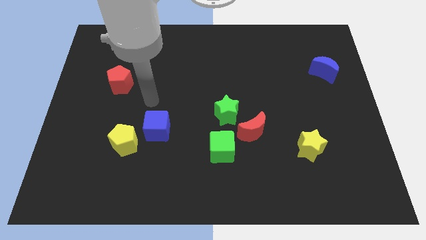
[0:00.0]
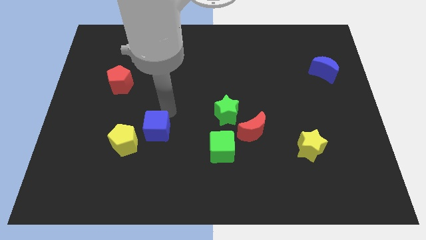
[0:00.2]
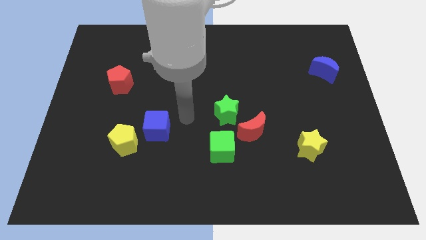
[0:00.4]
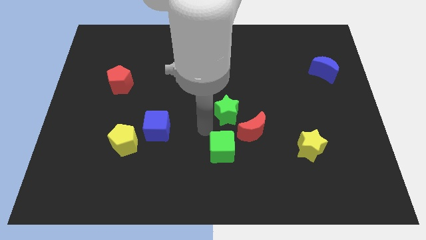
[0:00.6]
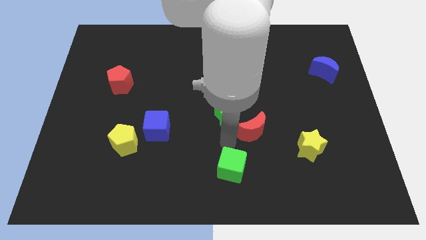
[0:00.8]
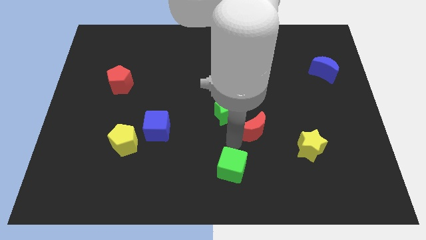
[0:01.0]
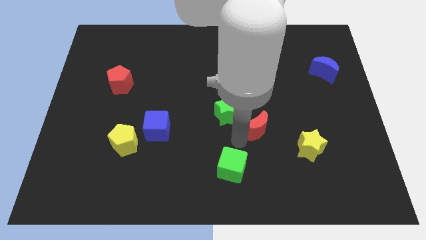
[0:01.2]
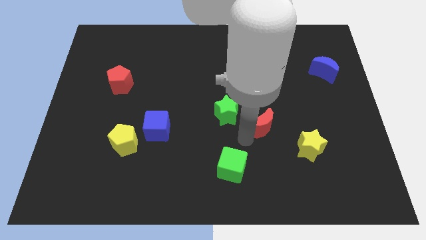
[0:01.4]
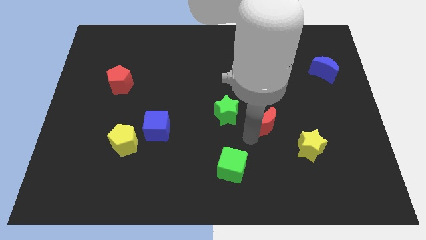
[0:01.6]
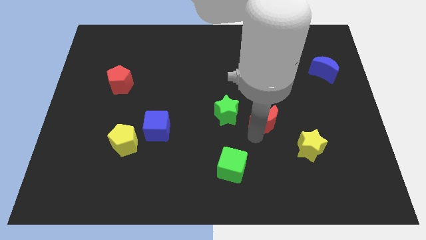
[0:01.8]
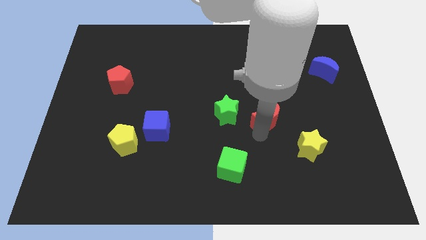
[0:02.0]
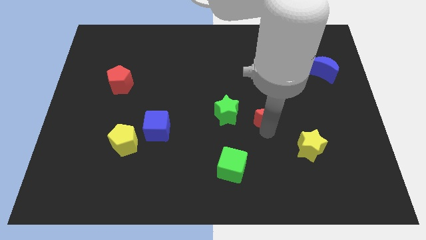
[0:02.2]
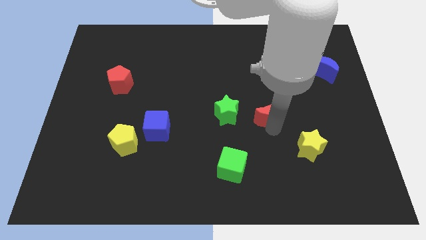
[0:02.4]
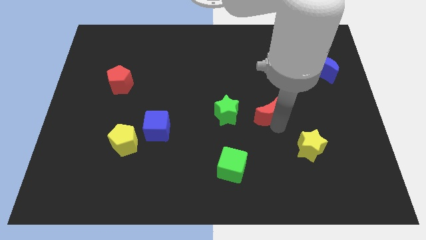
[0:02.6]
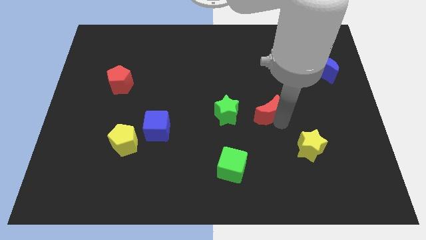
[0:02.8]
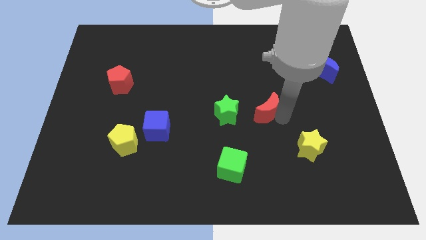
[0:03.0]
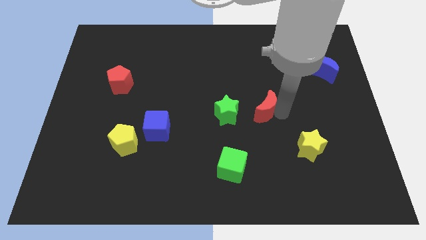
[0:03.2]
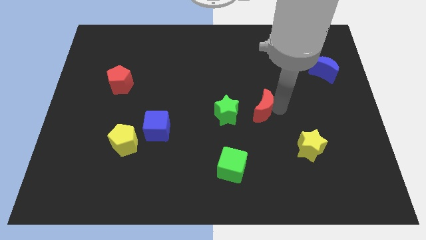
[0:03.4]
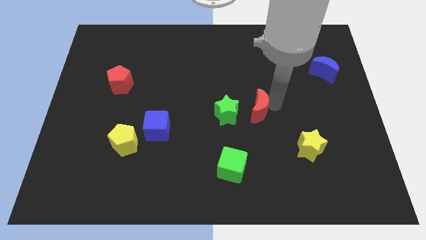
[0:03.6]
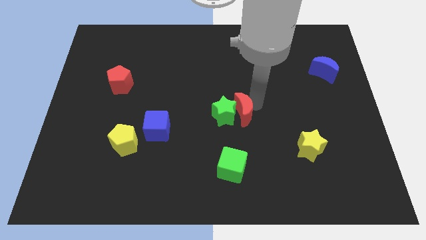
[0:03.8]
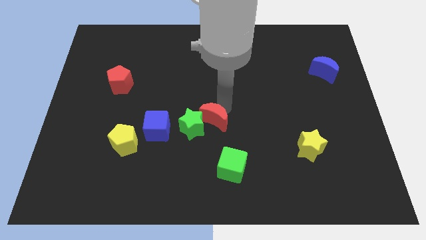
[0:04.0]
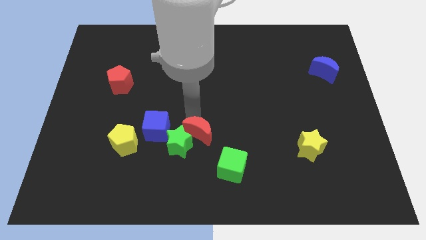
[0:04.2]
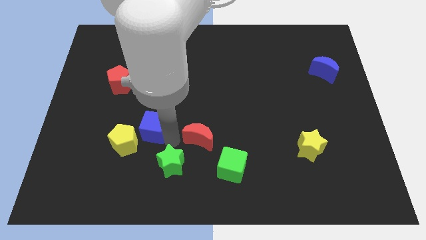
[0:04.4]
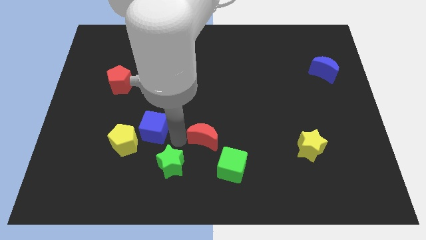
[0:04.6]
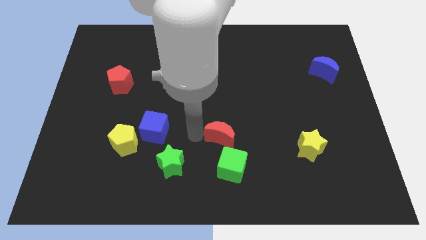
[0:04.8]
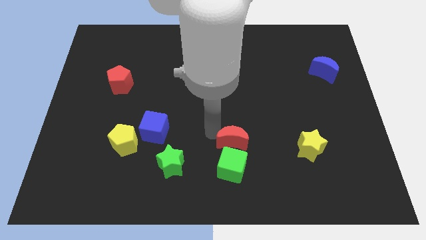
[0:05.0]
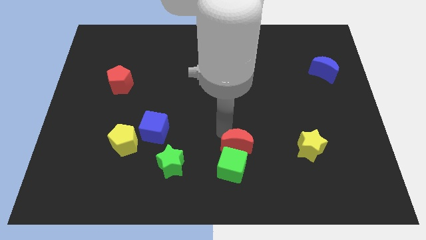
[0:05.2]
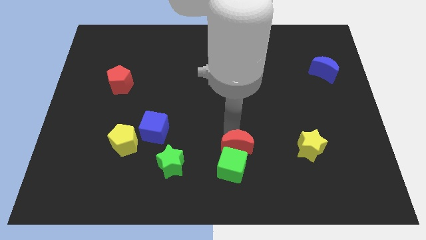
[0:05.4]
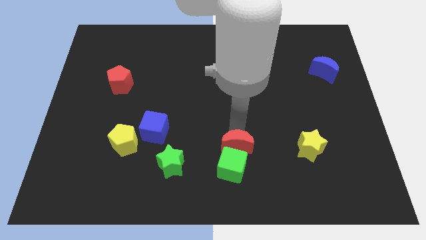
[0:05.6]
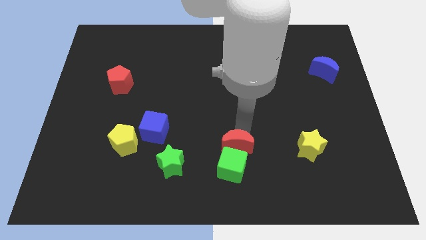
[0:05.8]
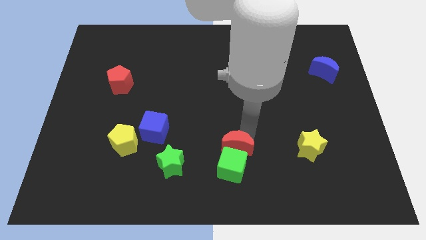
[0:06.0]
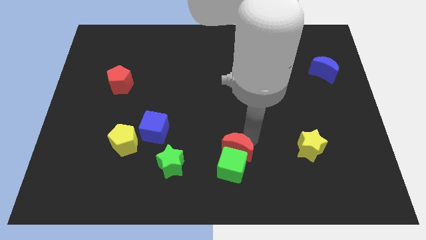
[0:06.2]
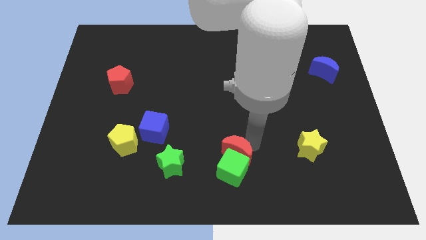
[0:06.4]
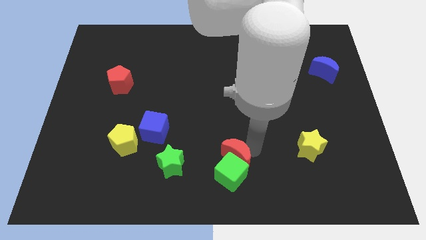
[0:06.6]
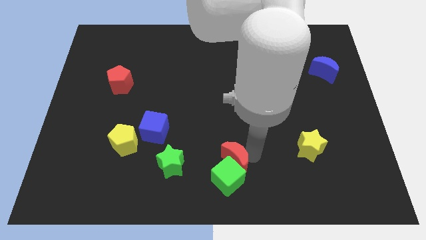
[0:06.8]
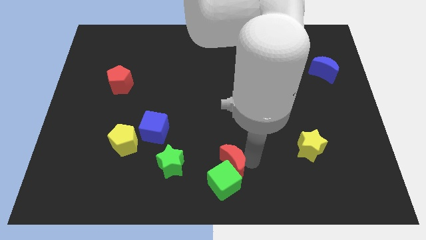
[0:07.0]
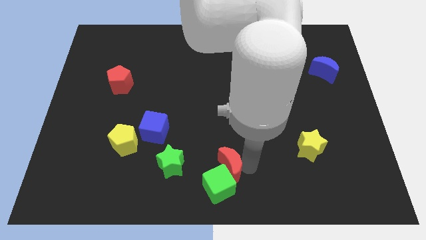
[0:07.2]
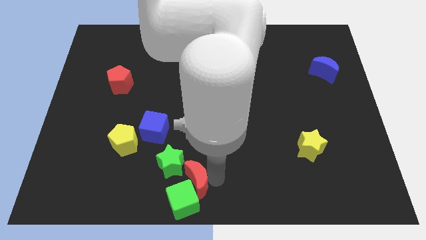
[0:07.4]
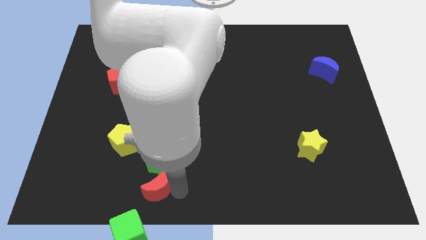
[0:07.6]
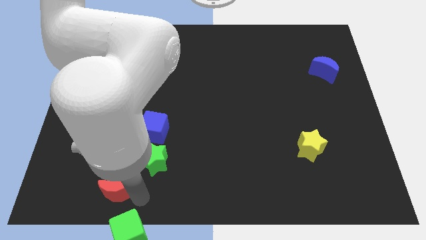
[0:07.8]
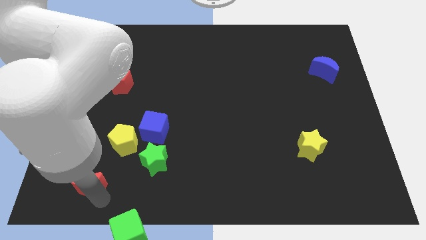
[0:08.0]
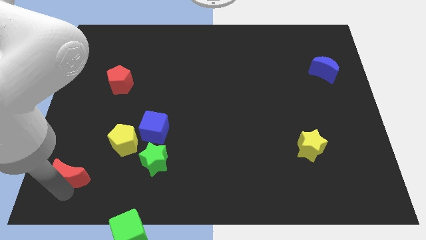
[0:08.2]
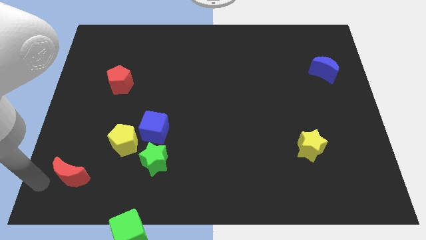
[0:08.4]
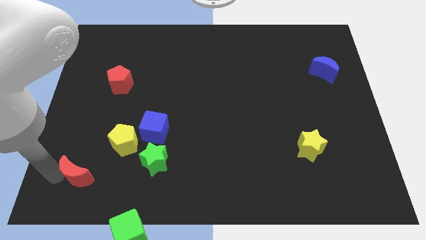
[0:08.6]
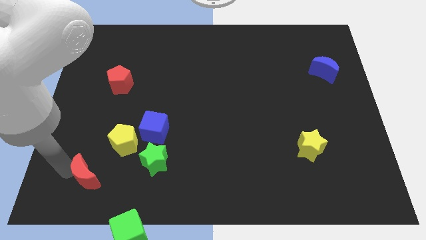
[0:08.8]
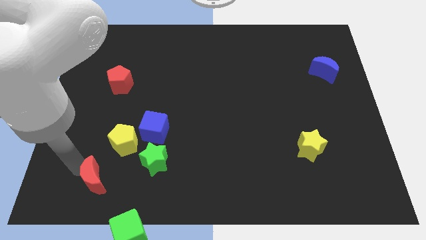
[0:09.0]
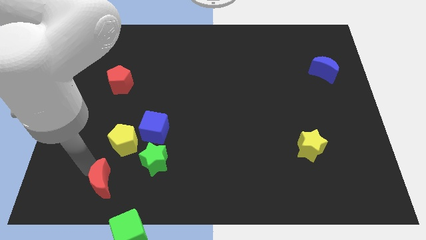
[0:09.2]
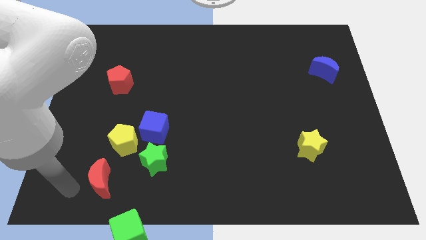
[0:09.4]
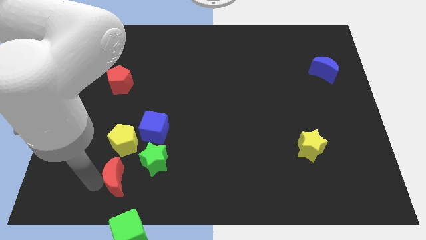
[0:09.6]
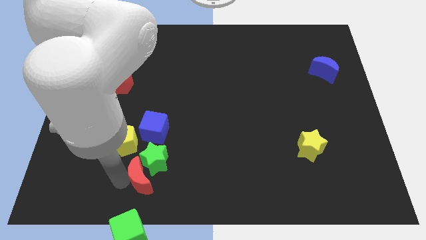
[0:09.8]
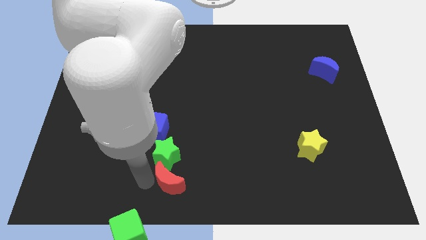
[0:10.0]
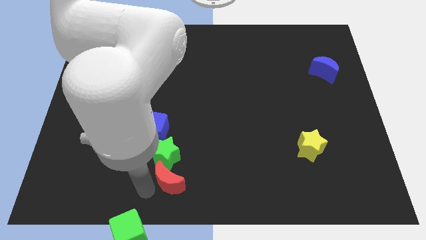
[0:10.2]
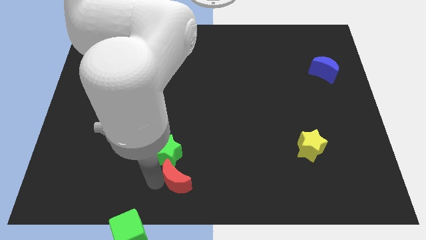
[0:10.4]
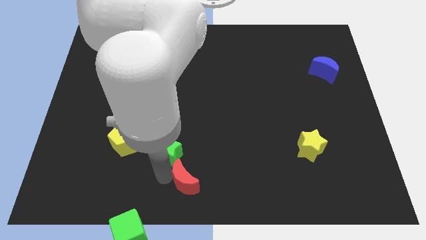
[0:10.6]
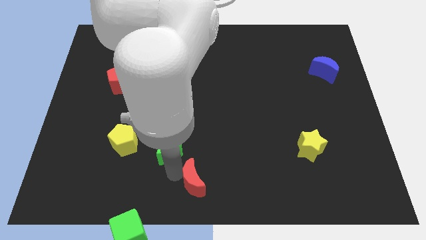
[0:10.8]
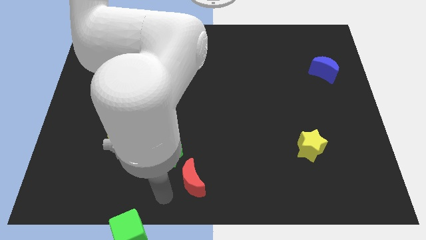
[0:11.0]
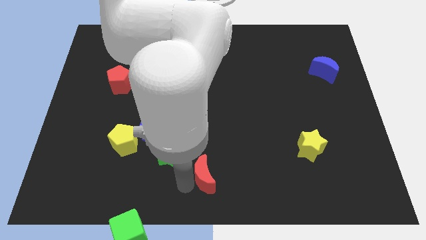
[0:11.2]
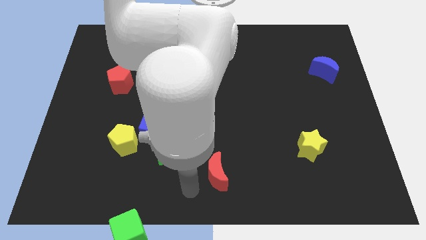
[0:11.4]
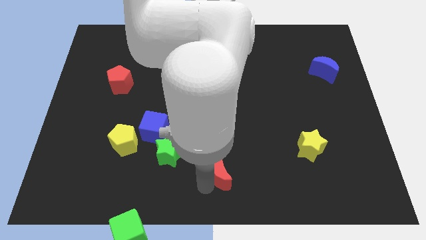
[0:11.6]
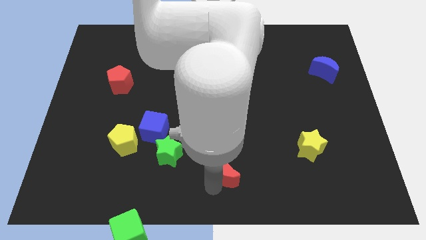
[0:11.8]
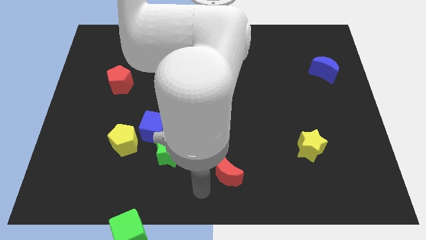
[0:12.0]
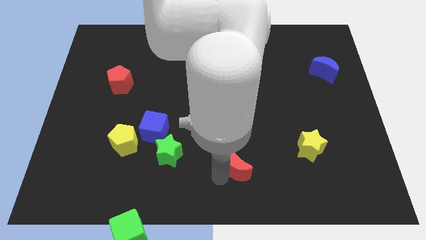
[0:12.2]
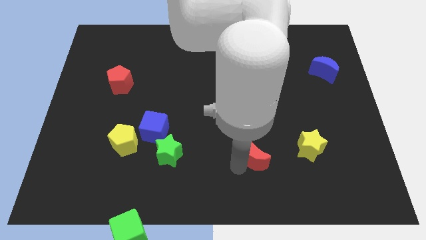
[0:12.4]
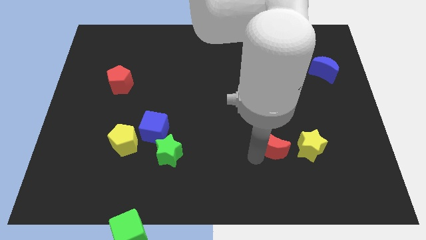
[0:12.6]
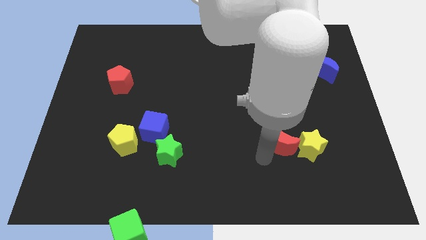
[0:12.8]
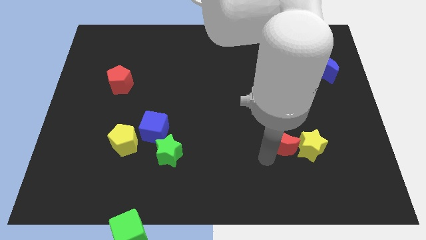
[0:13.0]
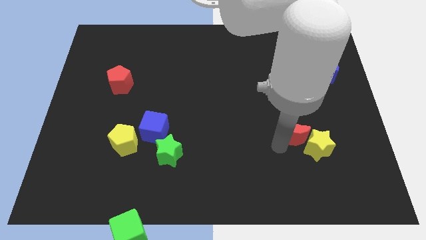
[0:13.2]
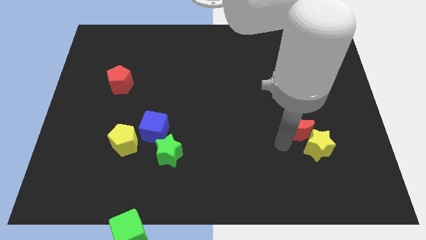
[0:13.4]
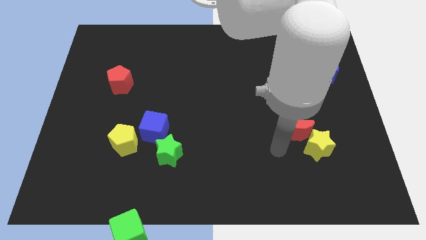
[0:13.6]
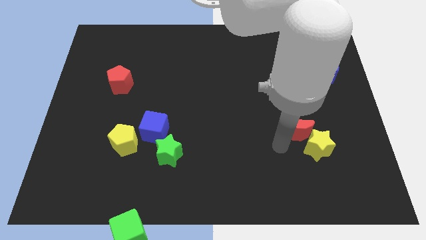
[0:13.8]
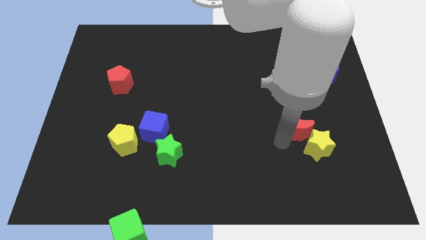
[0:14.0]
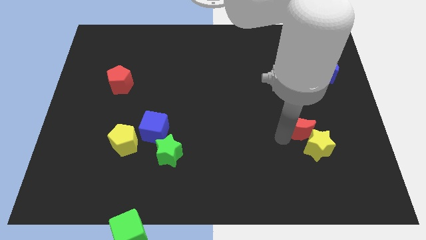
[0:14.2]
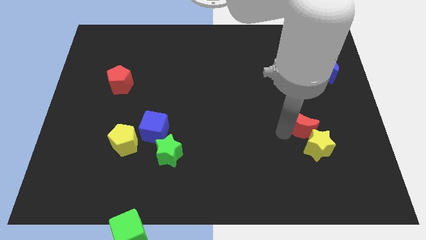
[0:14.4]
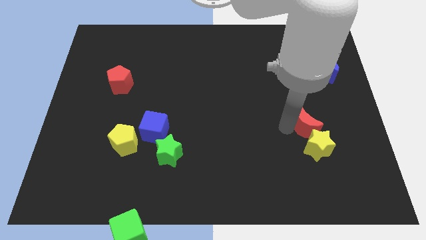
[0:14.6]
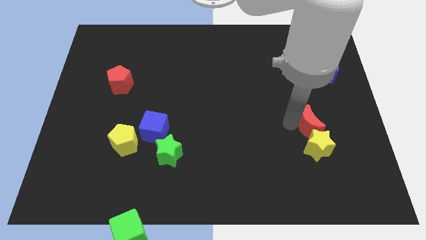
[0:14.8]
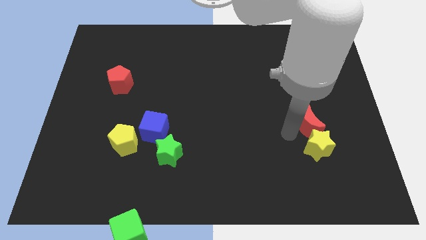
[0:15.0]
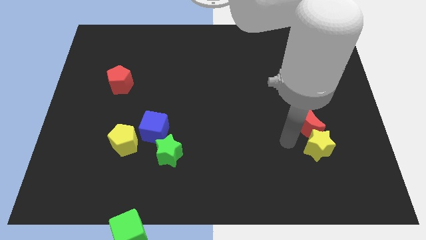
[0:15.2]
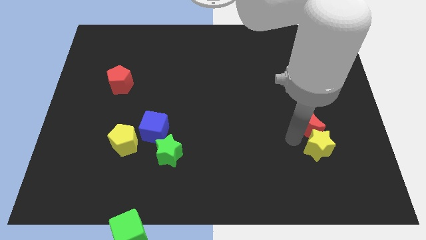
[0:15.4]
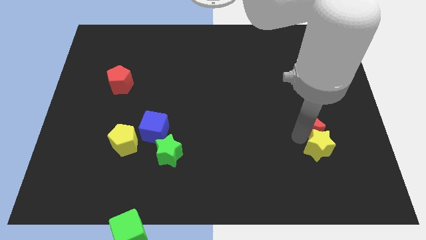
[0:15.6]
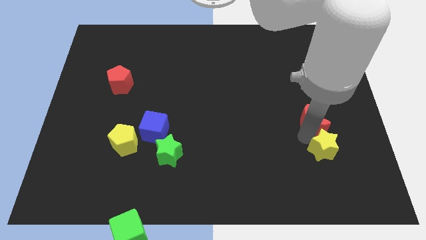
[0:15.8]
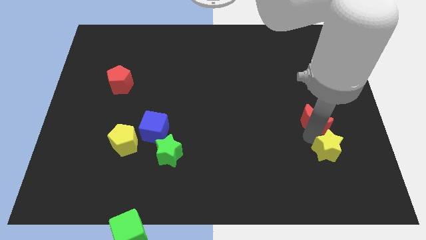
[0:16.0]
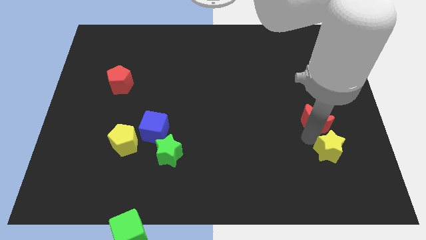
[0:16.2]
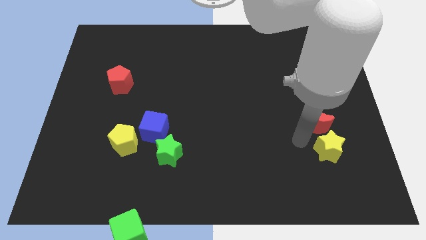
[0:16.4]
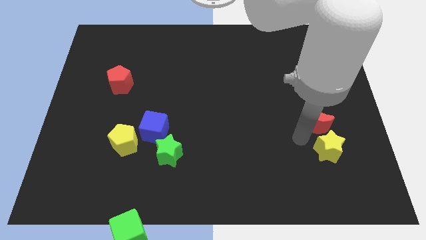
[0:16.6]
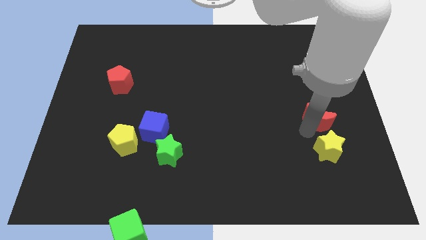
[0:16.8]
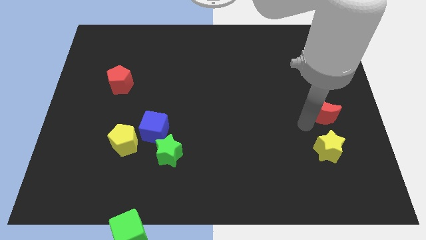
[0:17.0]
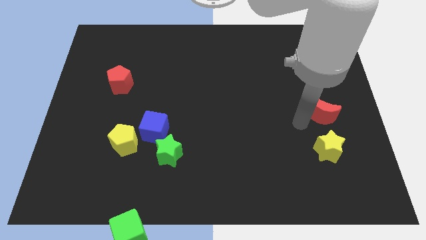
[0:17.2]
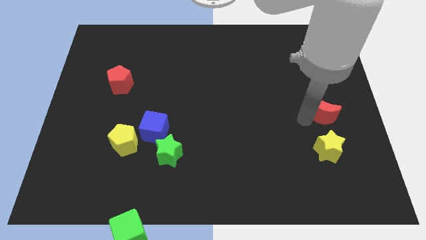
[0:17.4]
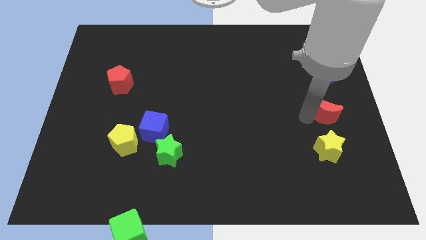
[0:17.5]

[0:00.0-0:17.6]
push the red moon to the center right
